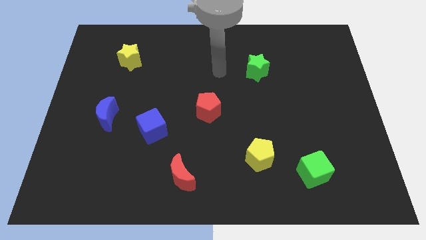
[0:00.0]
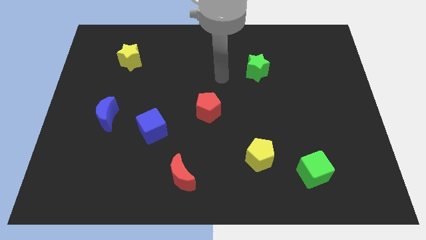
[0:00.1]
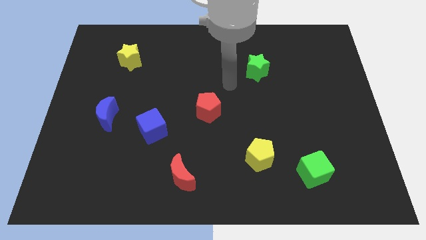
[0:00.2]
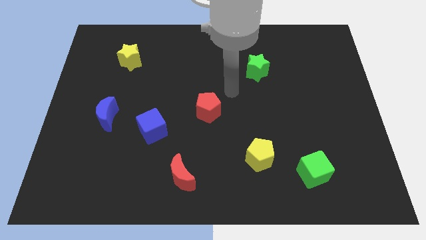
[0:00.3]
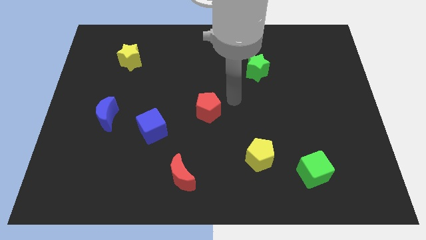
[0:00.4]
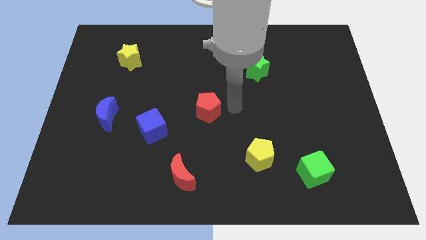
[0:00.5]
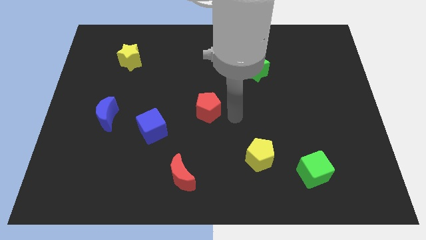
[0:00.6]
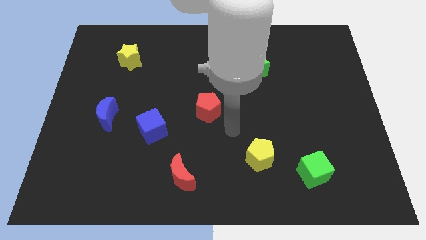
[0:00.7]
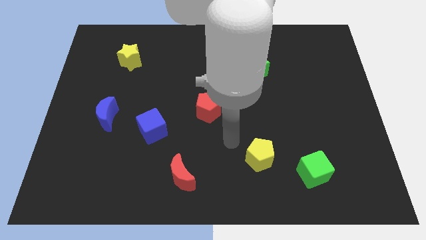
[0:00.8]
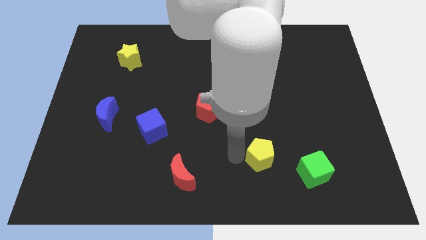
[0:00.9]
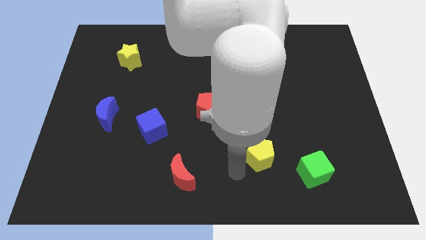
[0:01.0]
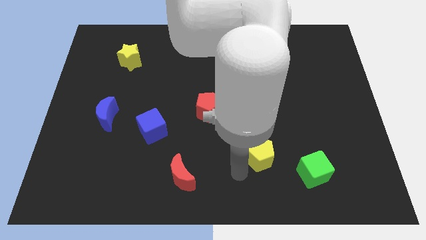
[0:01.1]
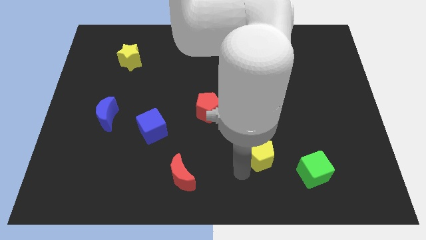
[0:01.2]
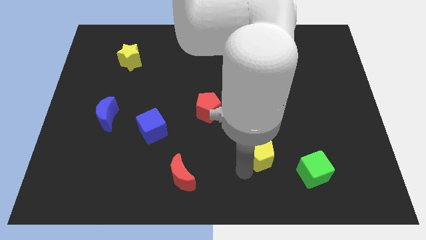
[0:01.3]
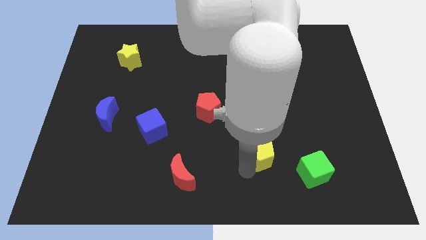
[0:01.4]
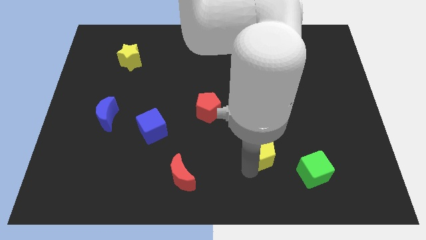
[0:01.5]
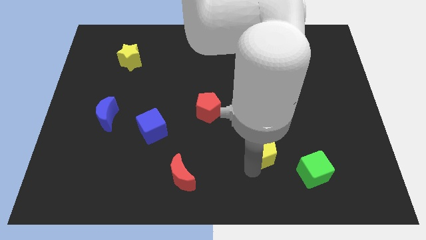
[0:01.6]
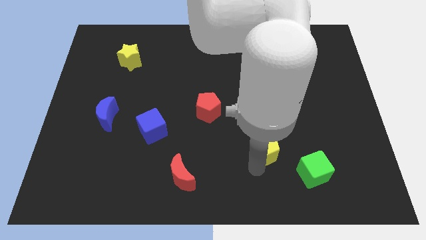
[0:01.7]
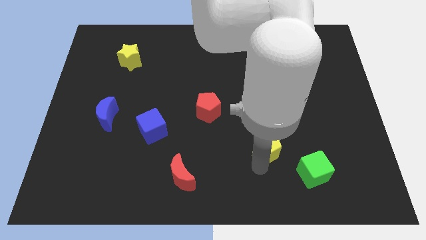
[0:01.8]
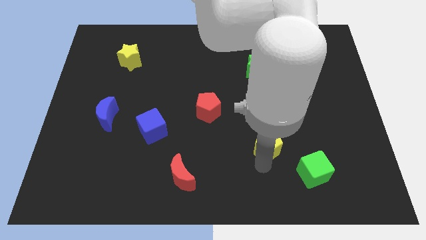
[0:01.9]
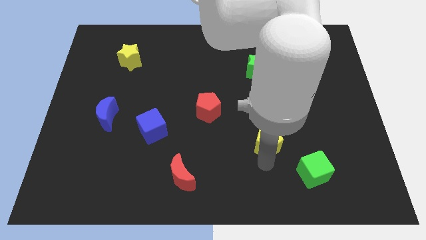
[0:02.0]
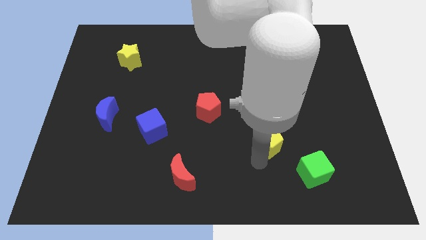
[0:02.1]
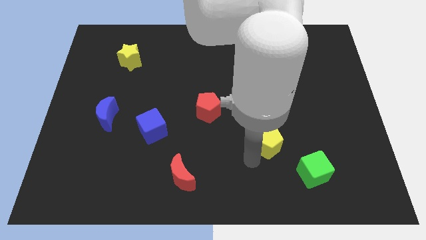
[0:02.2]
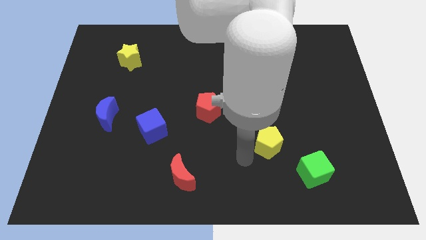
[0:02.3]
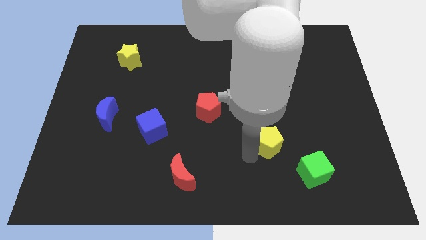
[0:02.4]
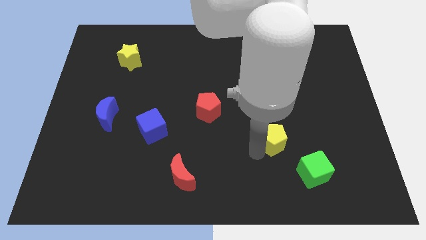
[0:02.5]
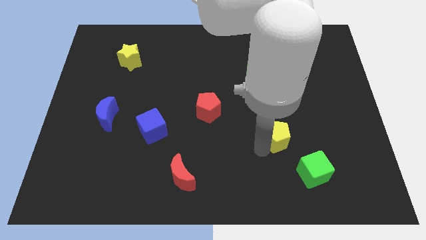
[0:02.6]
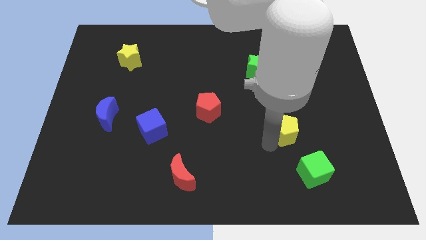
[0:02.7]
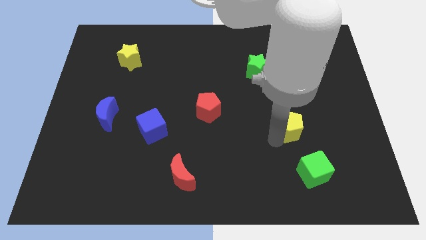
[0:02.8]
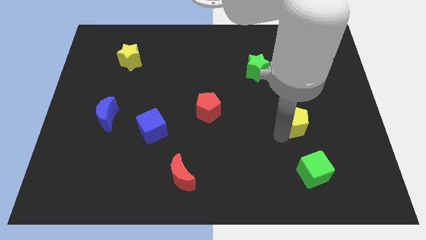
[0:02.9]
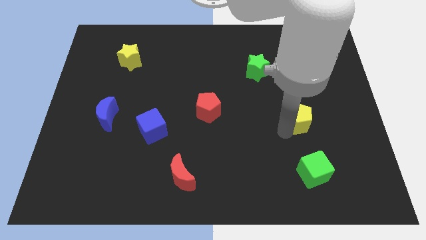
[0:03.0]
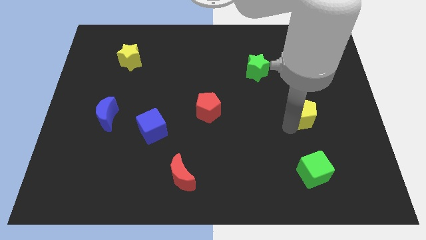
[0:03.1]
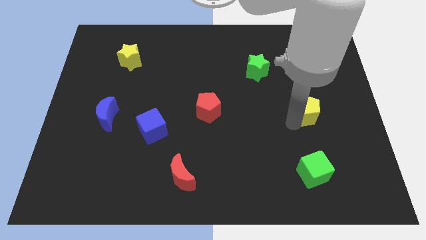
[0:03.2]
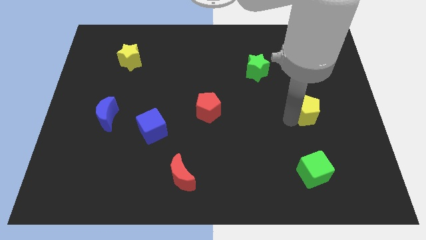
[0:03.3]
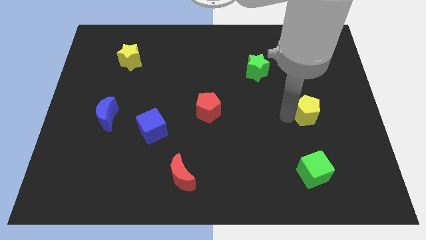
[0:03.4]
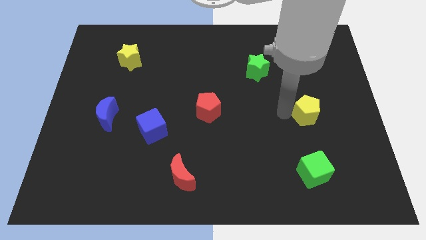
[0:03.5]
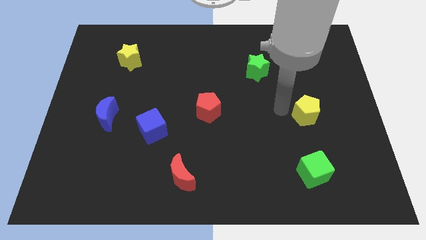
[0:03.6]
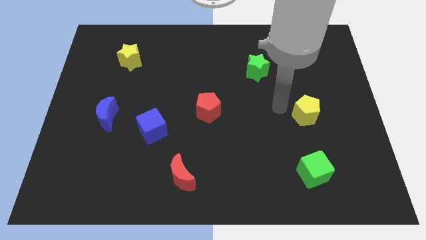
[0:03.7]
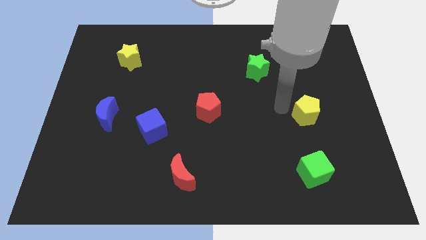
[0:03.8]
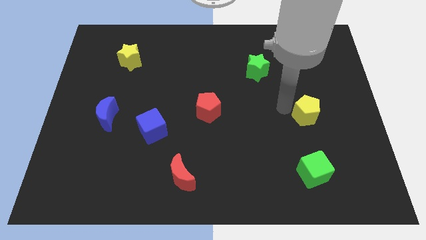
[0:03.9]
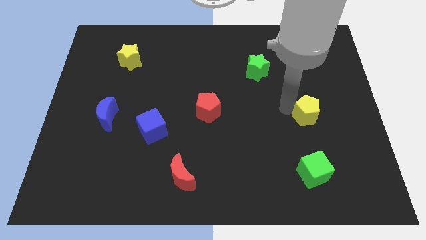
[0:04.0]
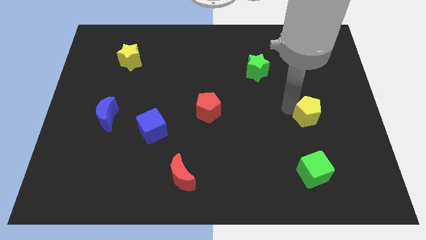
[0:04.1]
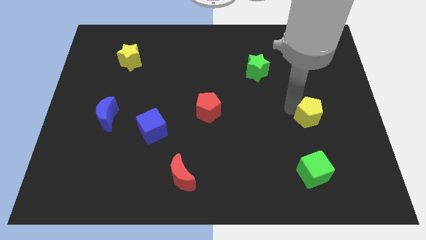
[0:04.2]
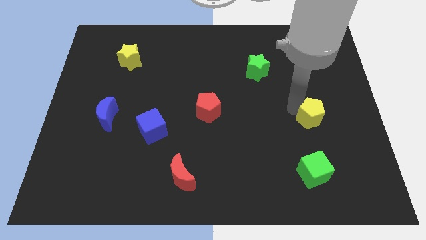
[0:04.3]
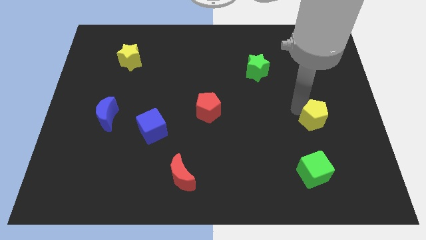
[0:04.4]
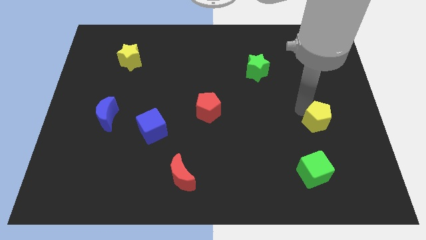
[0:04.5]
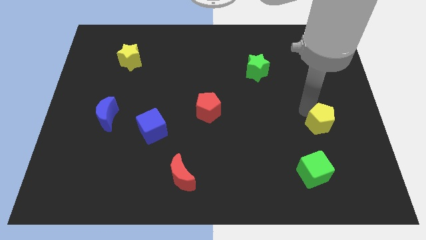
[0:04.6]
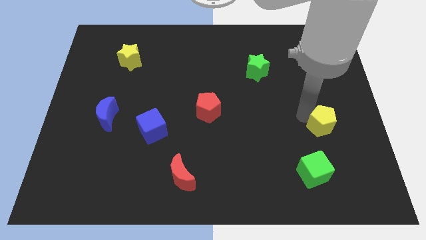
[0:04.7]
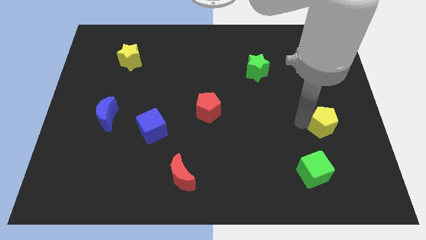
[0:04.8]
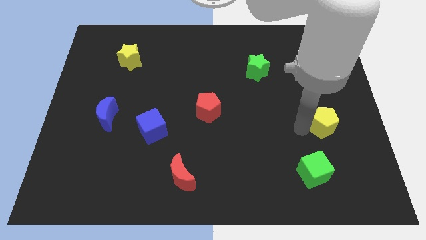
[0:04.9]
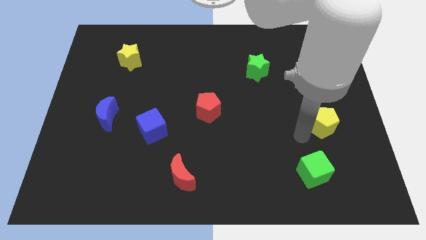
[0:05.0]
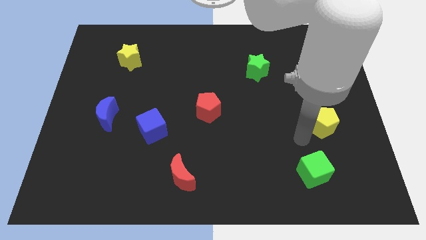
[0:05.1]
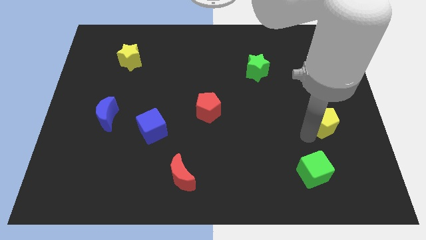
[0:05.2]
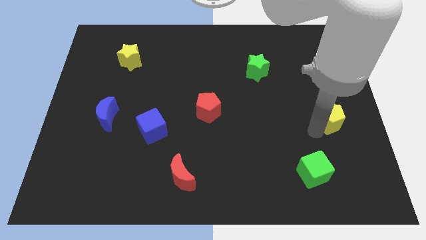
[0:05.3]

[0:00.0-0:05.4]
put the yellow pentagon to the right side

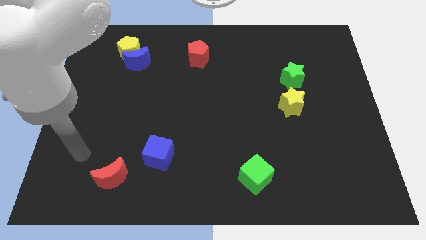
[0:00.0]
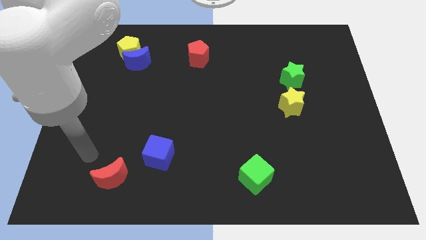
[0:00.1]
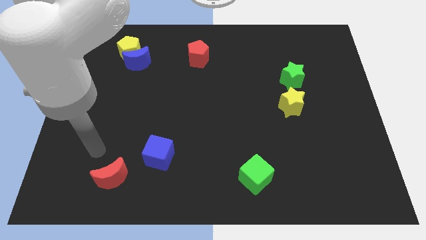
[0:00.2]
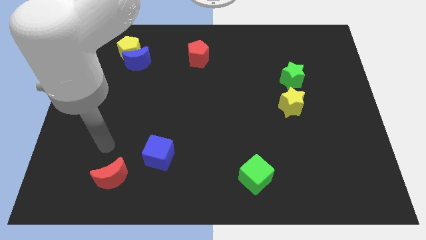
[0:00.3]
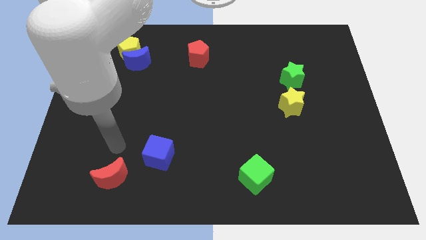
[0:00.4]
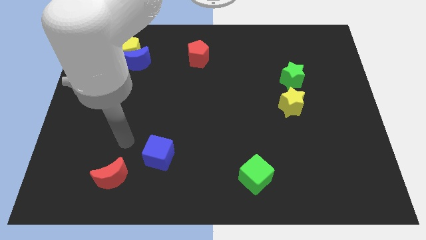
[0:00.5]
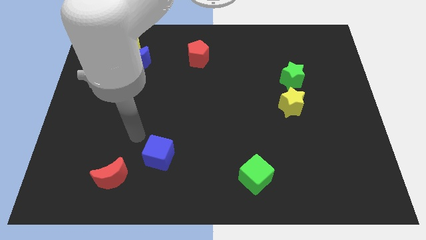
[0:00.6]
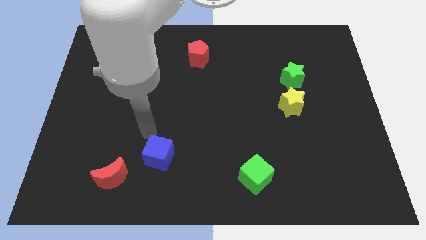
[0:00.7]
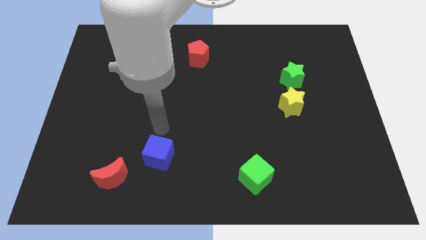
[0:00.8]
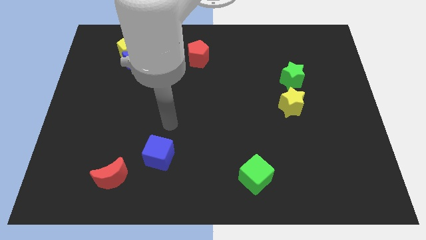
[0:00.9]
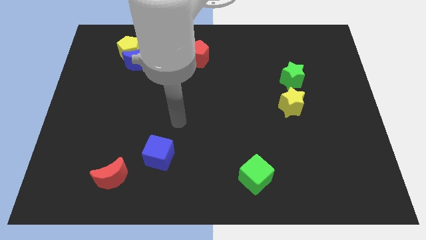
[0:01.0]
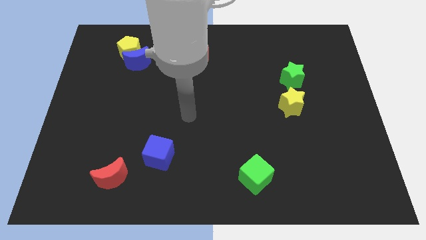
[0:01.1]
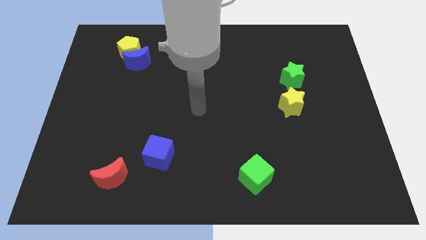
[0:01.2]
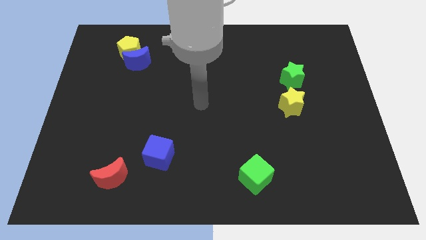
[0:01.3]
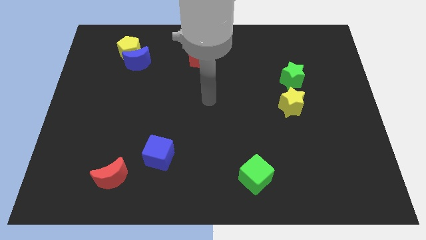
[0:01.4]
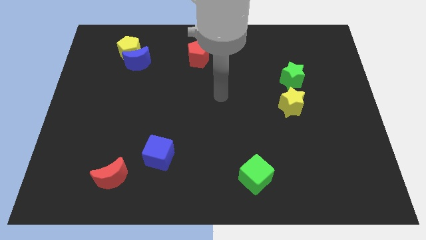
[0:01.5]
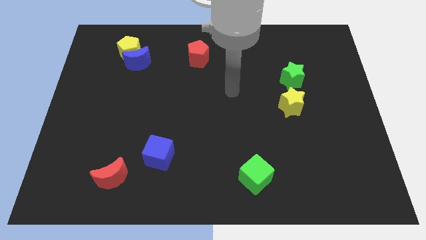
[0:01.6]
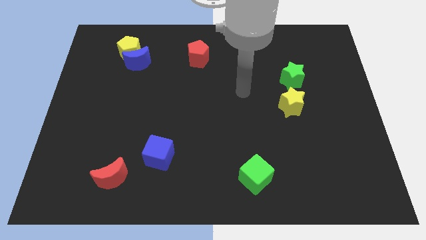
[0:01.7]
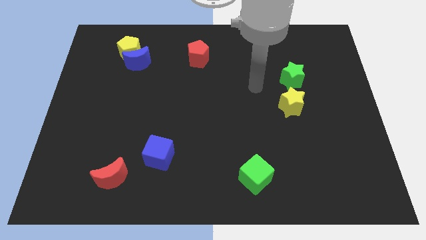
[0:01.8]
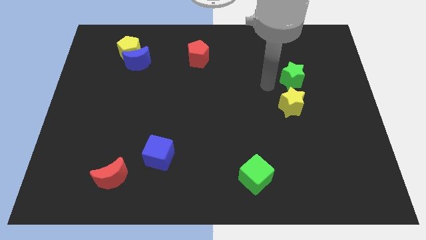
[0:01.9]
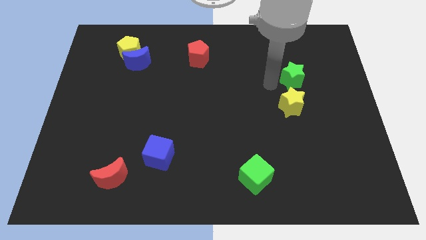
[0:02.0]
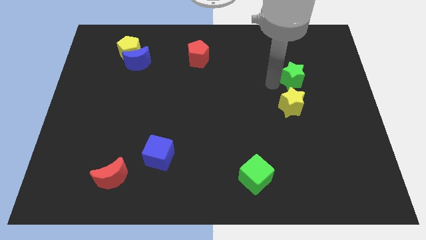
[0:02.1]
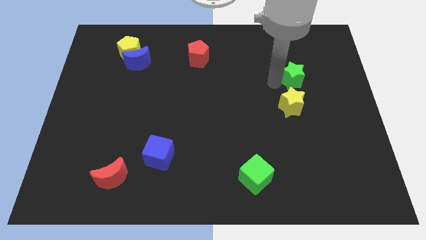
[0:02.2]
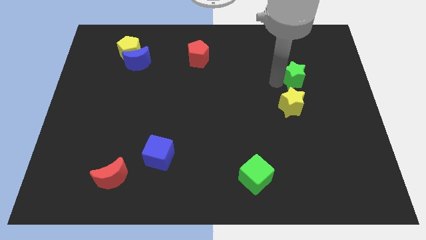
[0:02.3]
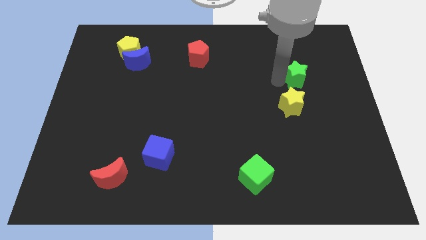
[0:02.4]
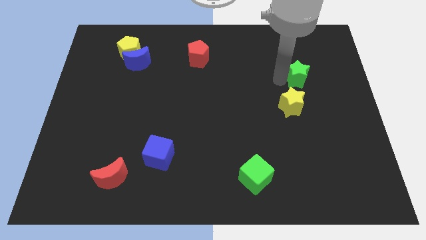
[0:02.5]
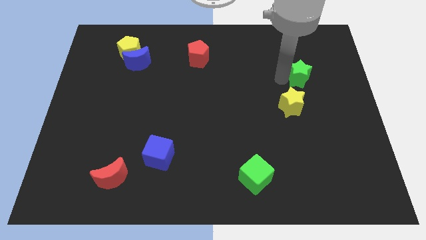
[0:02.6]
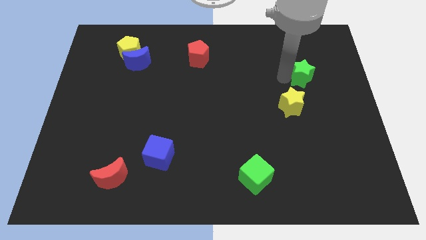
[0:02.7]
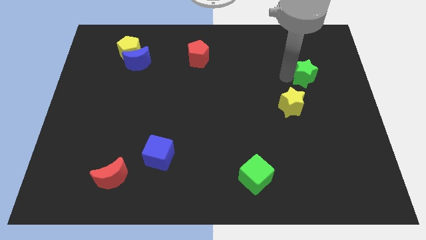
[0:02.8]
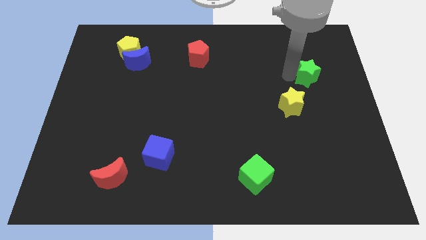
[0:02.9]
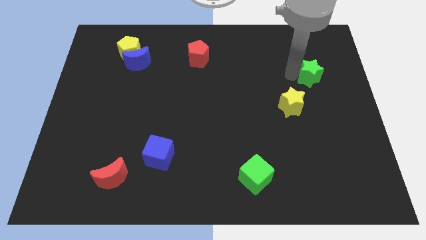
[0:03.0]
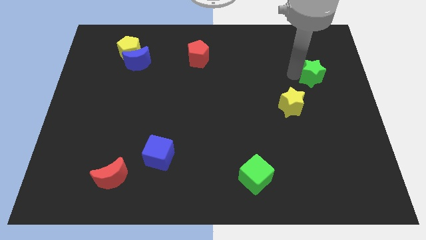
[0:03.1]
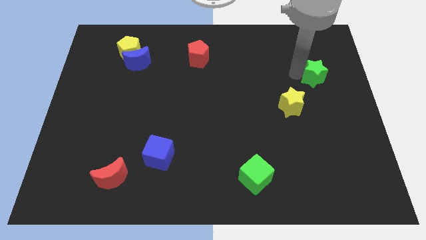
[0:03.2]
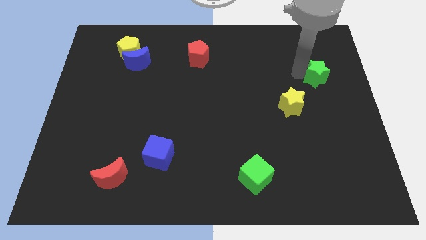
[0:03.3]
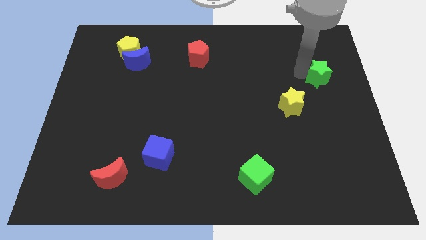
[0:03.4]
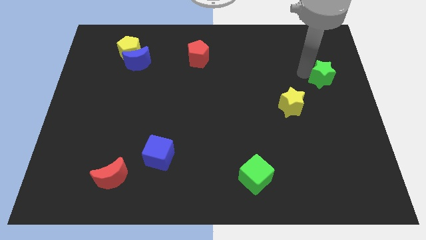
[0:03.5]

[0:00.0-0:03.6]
move the green star to the right side of the board
